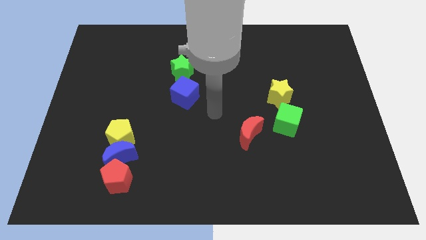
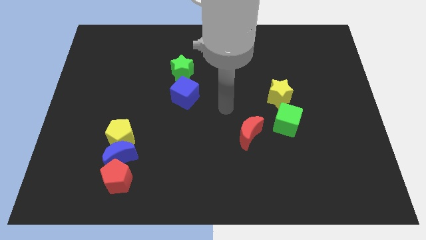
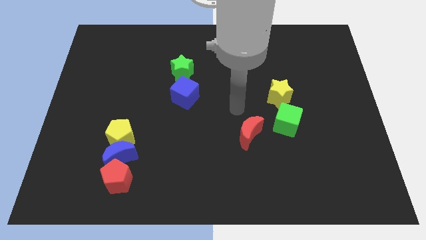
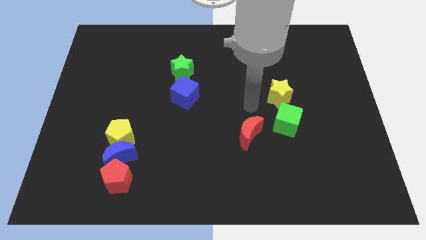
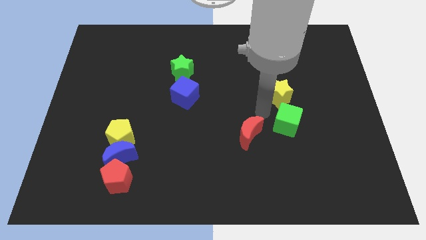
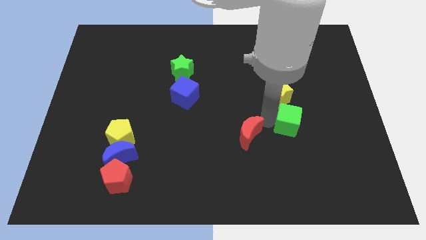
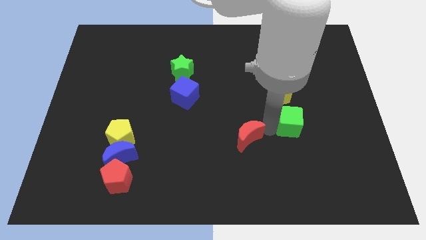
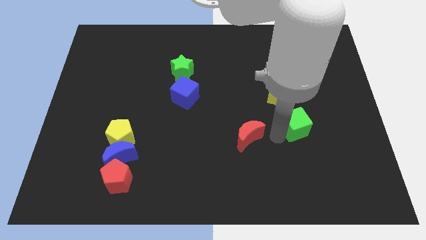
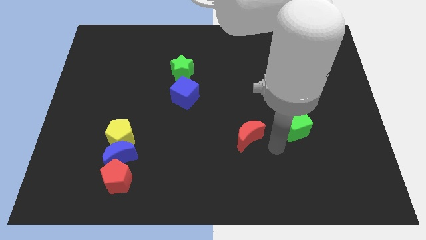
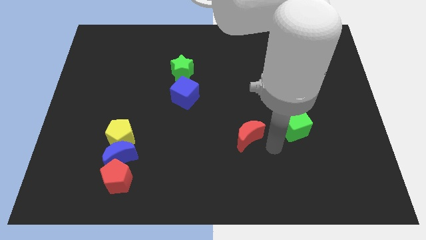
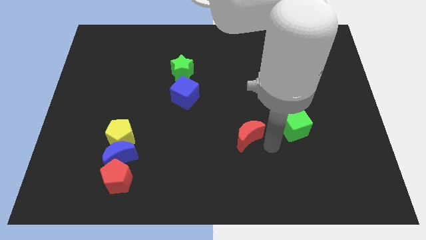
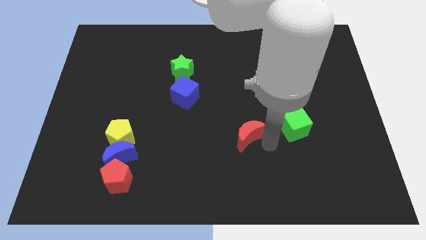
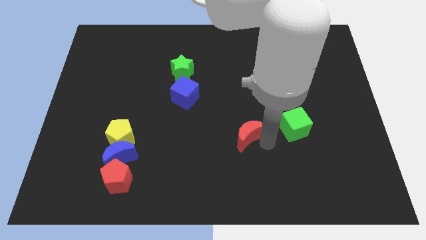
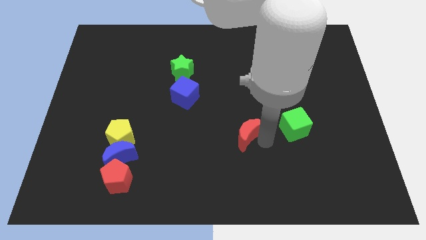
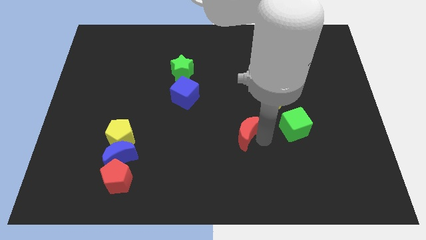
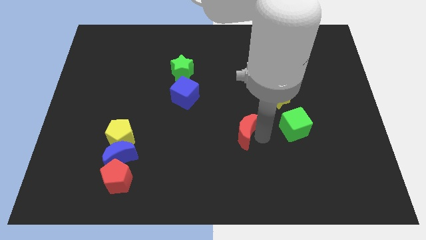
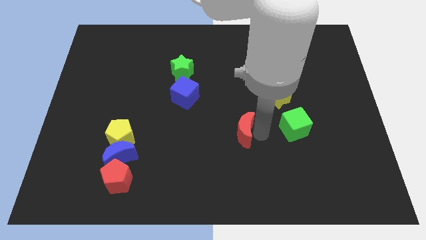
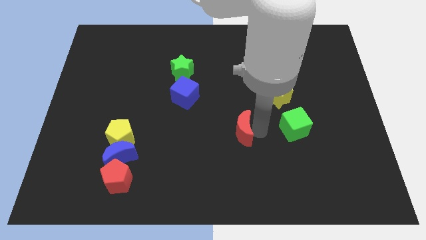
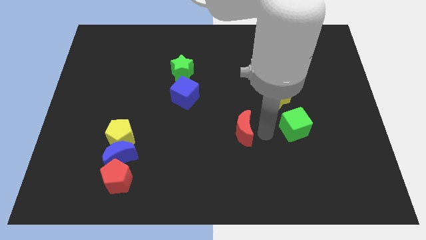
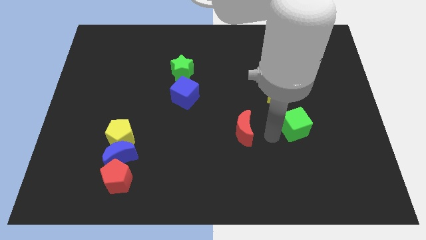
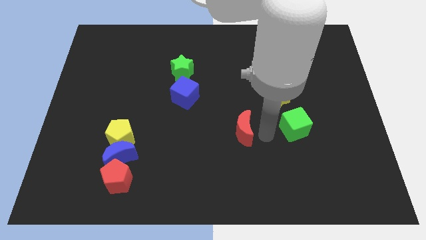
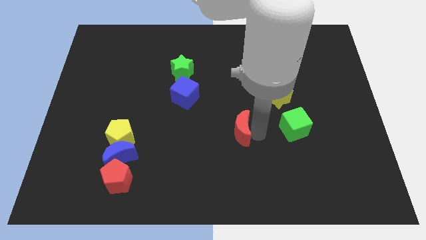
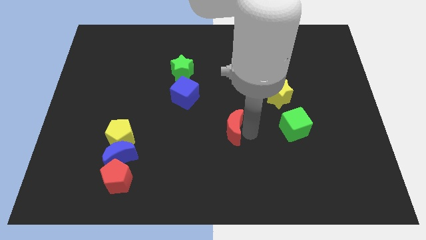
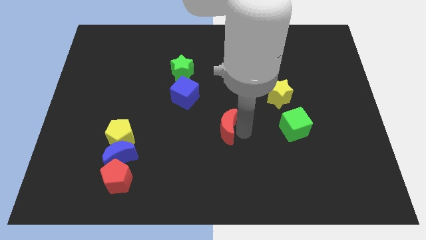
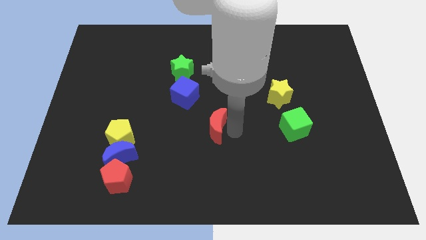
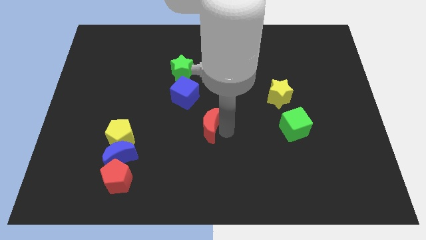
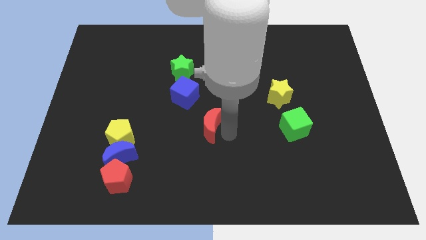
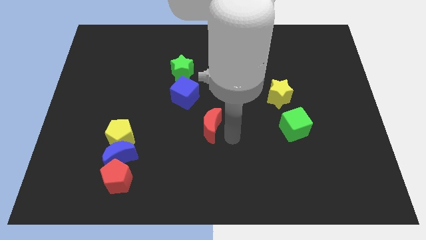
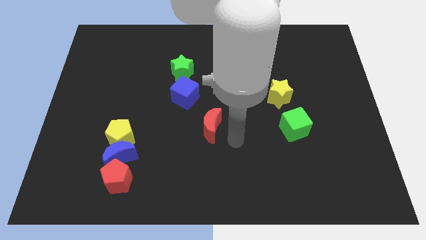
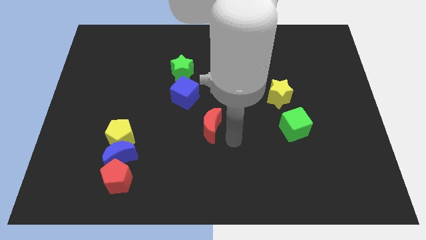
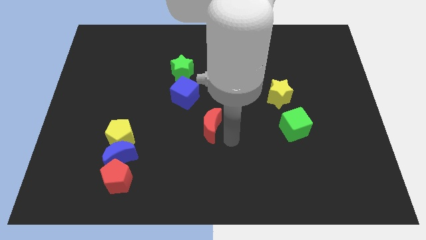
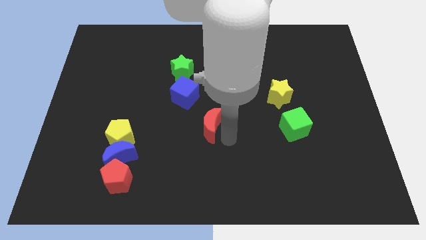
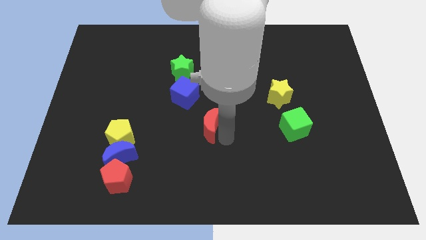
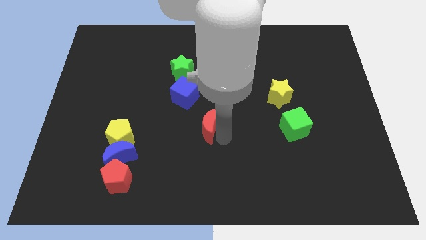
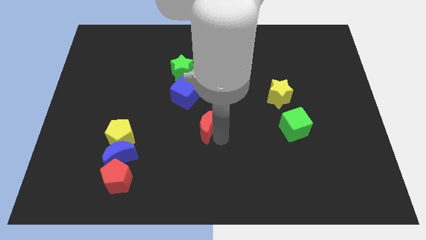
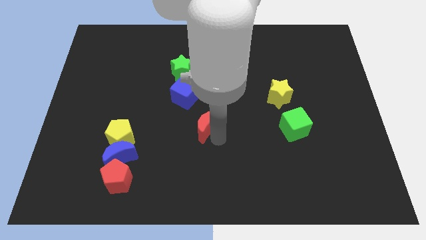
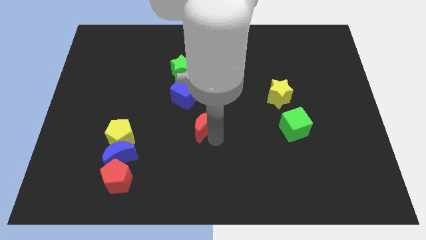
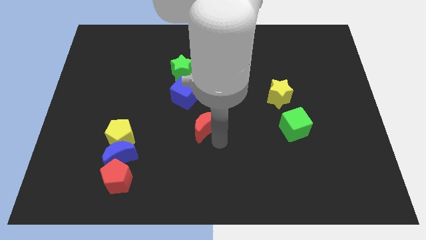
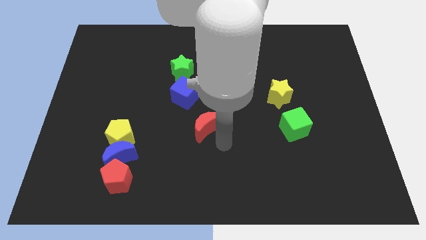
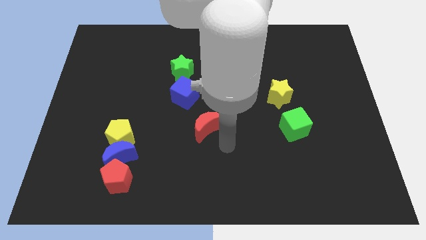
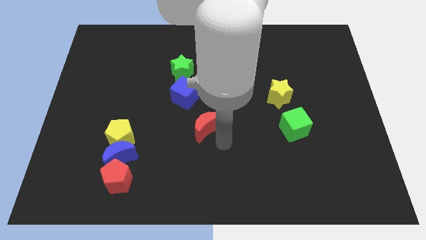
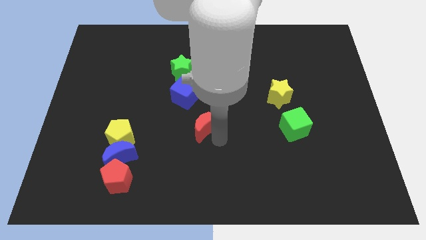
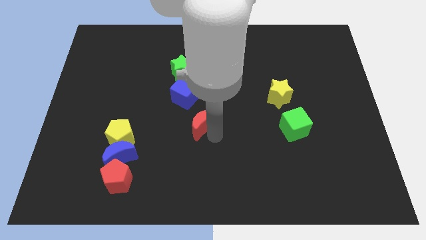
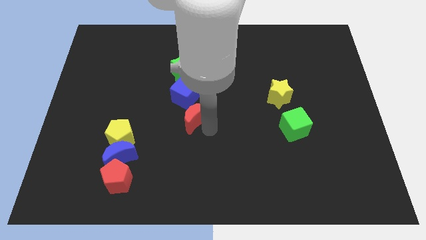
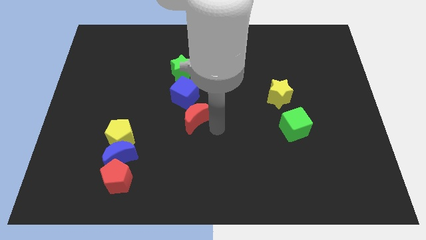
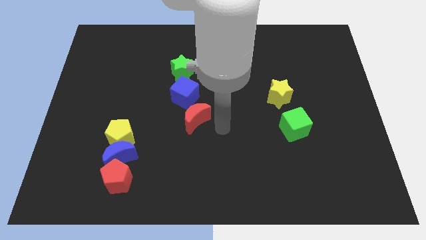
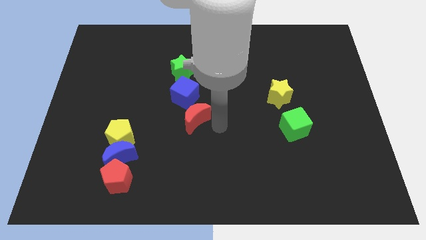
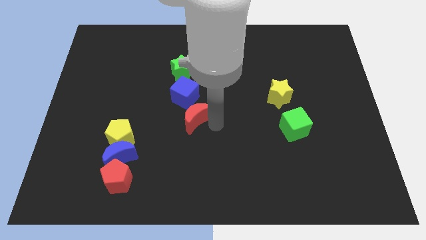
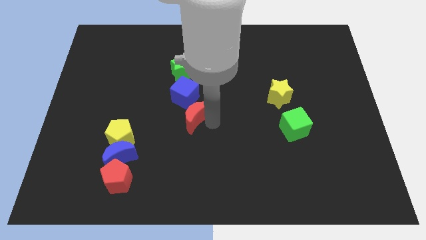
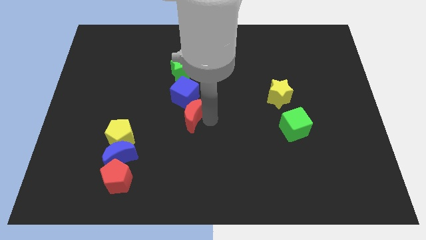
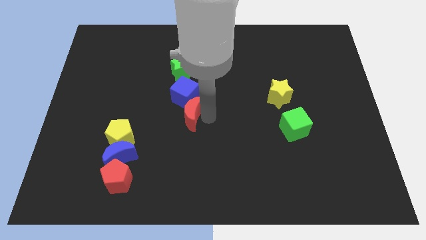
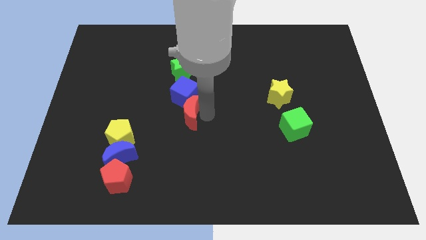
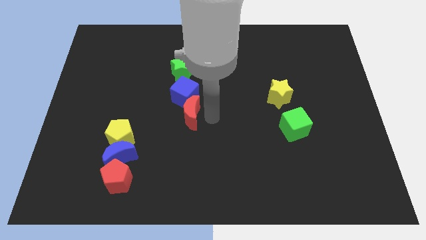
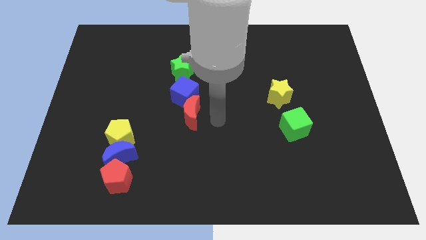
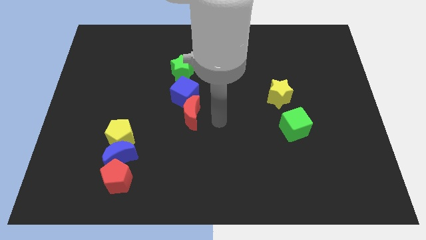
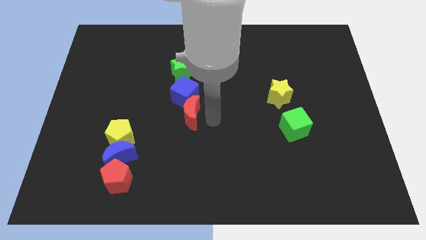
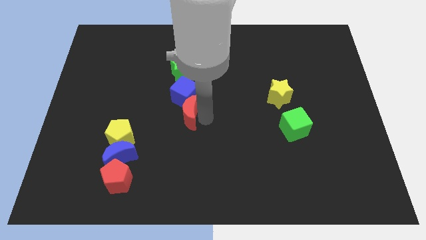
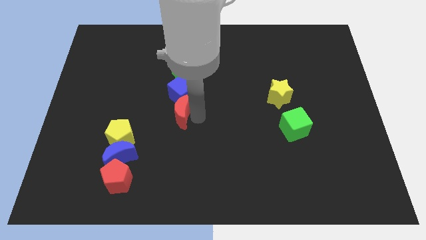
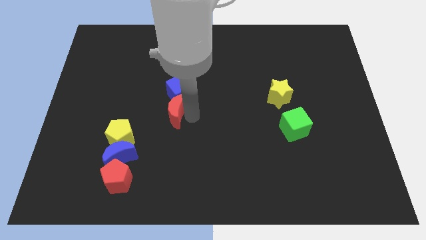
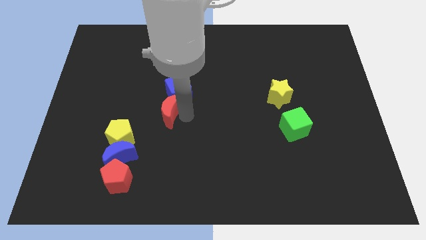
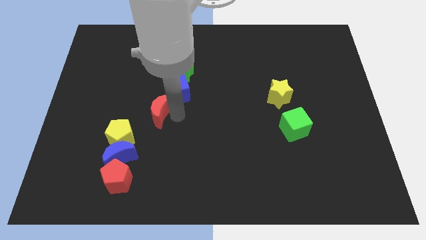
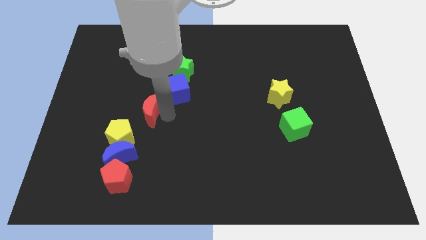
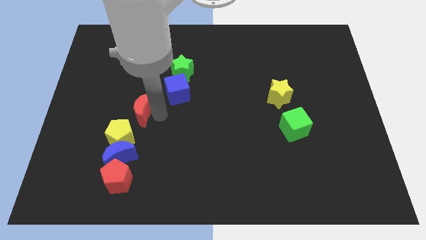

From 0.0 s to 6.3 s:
put the red moon to the top side of the yellow pentagon

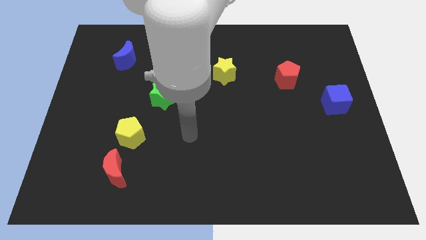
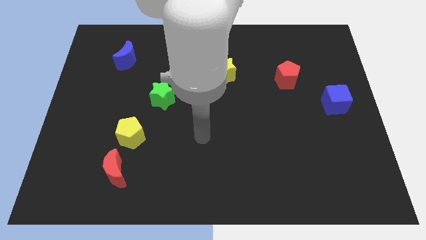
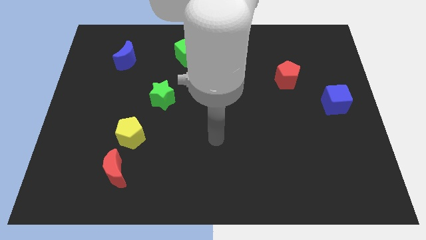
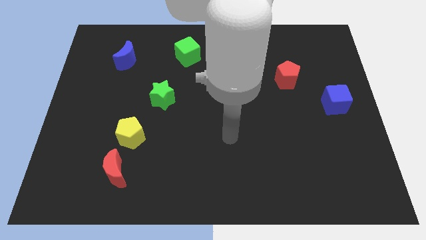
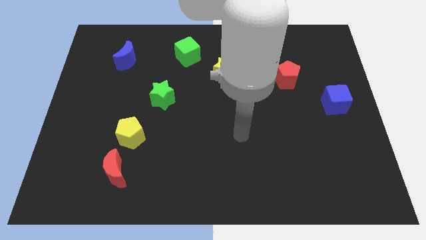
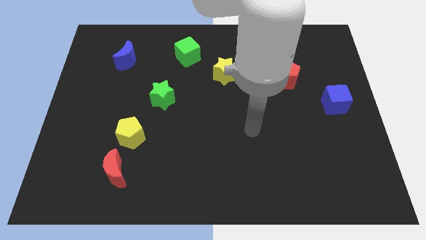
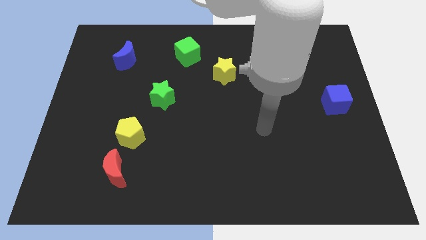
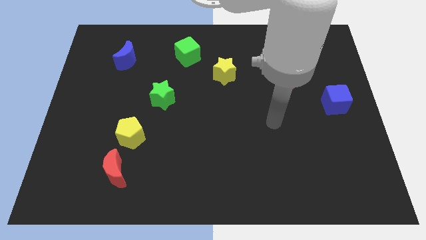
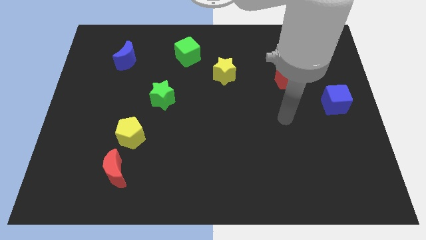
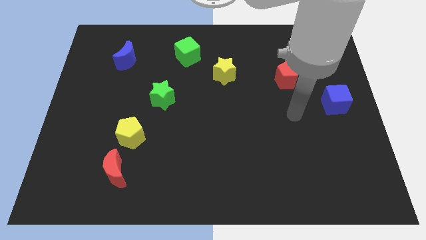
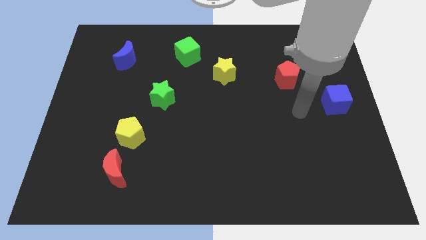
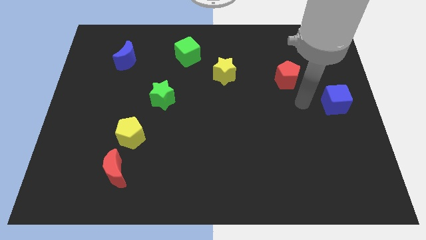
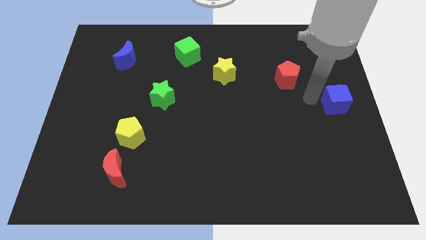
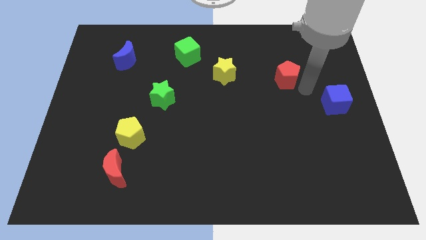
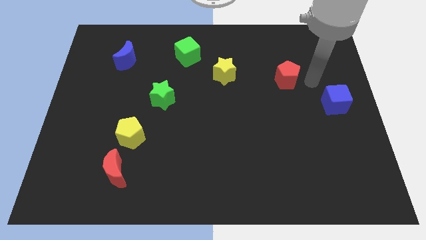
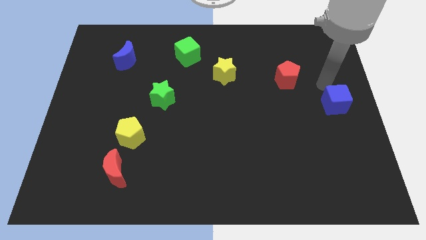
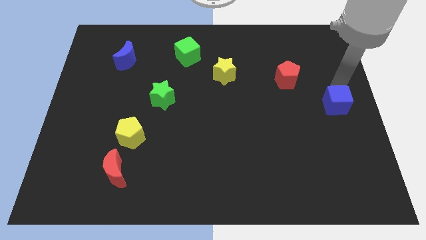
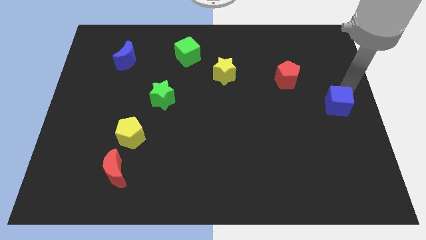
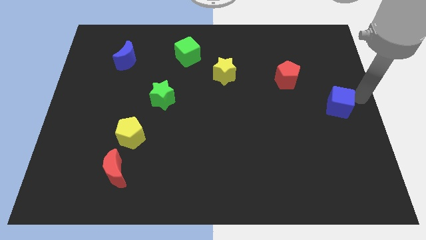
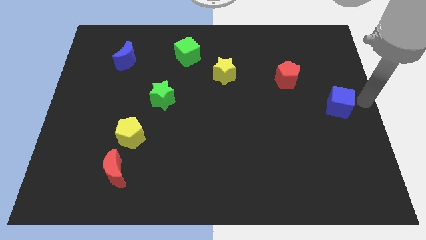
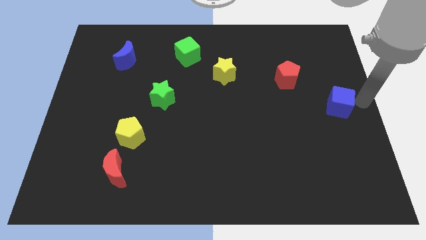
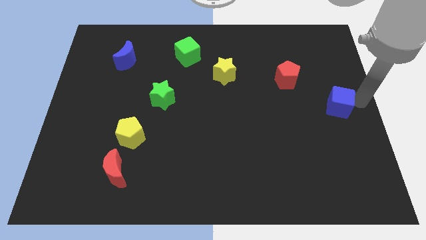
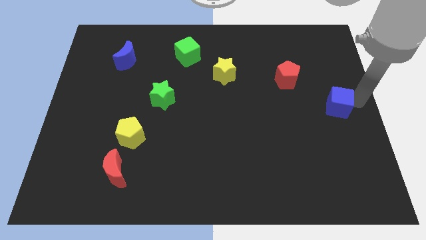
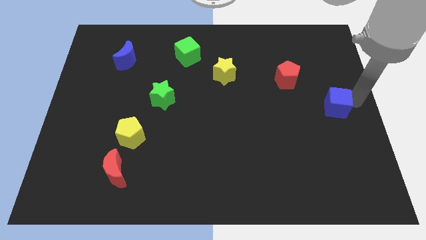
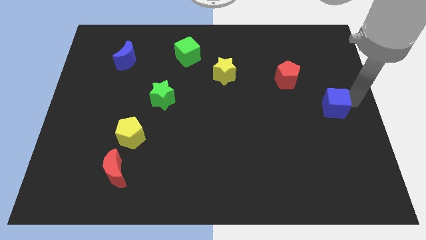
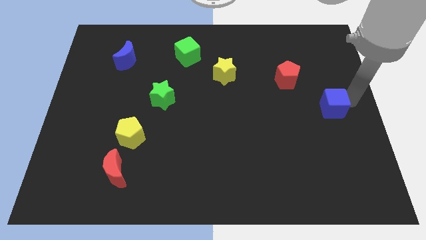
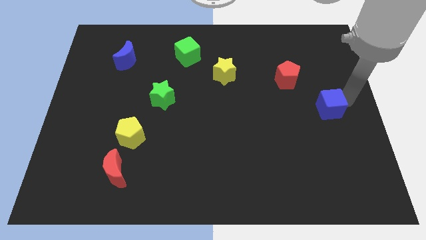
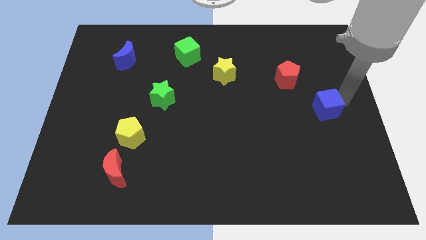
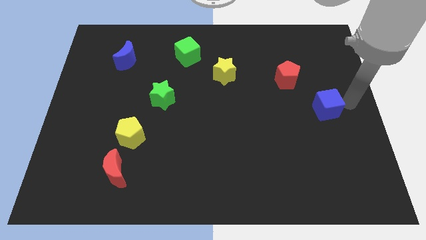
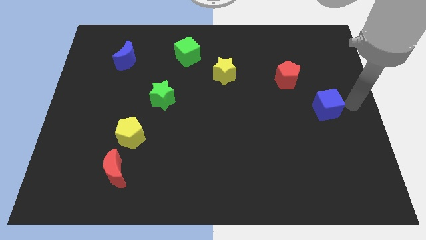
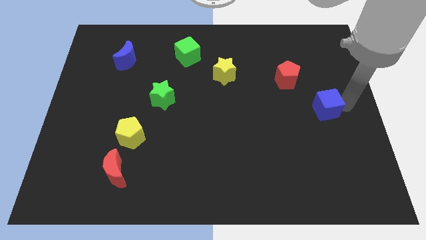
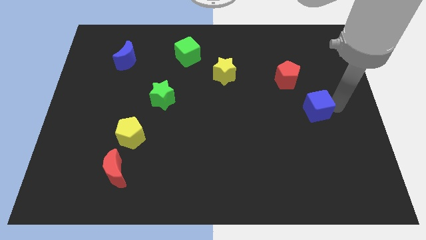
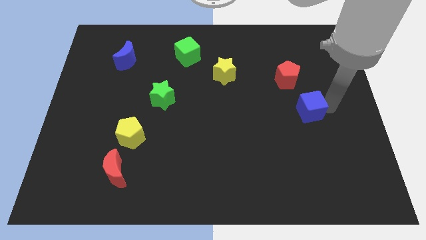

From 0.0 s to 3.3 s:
move the blue cube below the red pentagon
